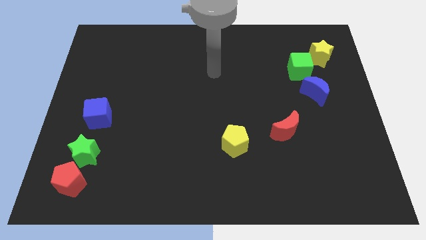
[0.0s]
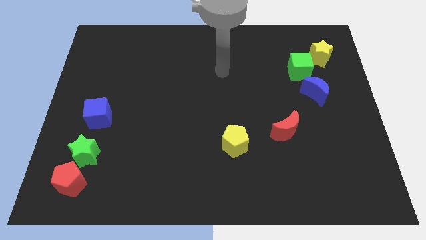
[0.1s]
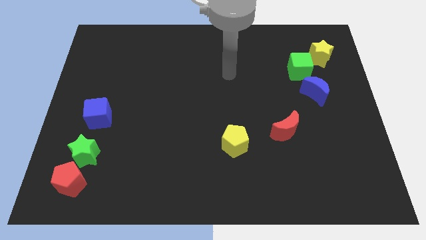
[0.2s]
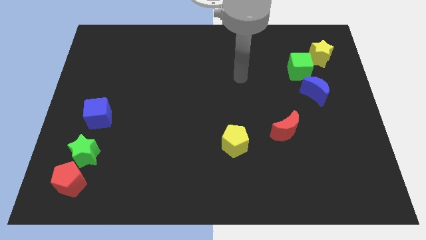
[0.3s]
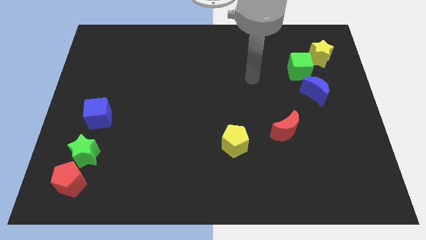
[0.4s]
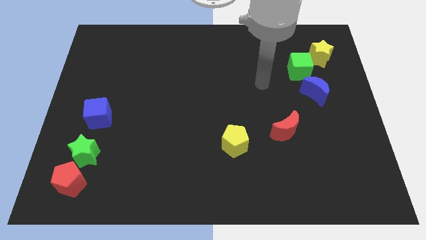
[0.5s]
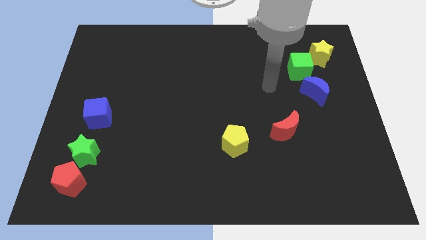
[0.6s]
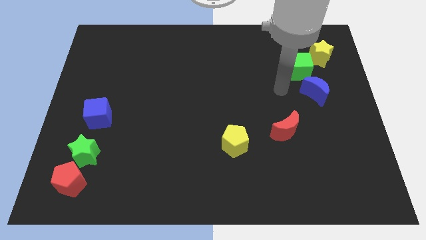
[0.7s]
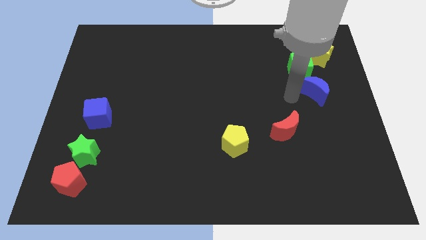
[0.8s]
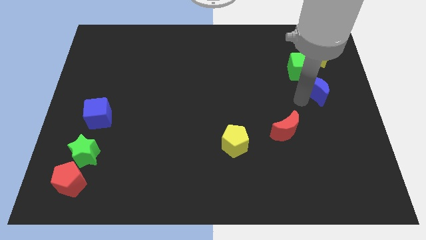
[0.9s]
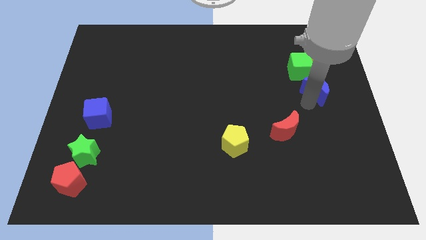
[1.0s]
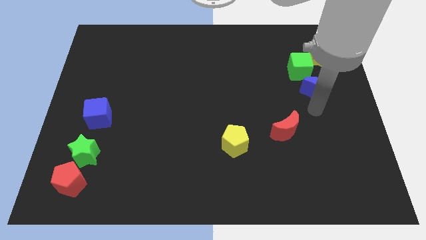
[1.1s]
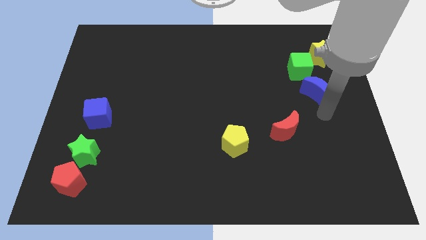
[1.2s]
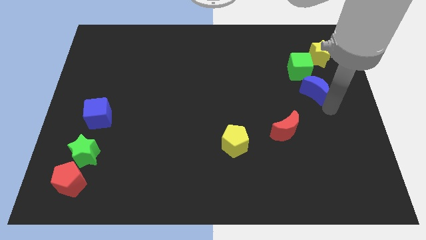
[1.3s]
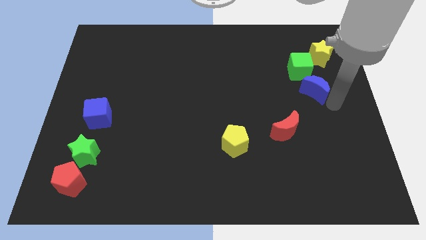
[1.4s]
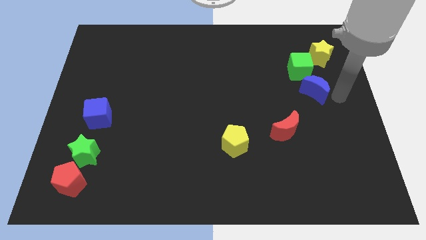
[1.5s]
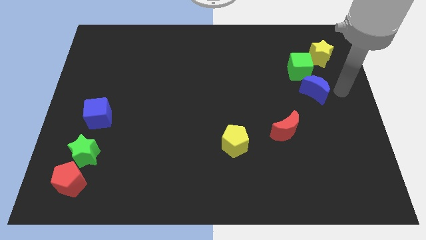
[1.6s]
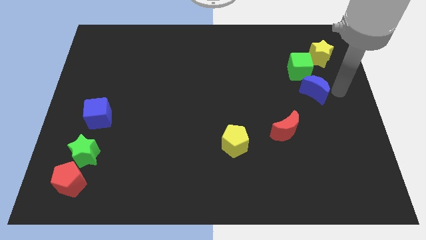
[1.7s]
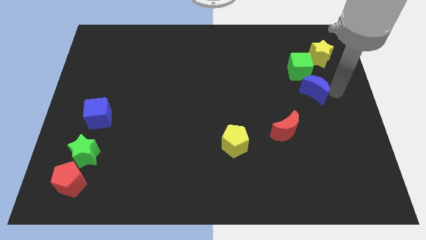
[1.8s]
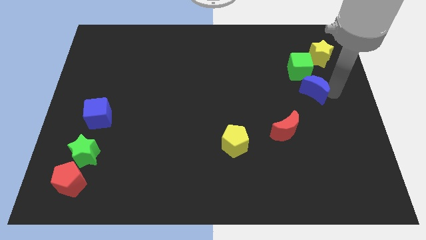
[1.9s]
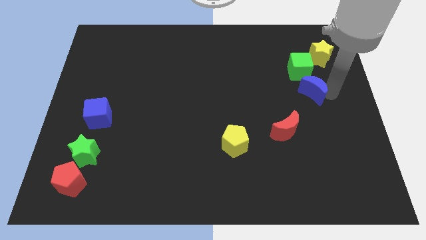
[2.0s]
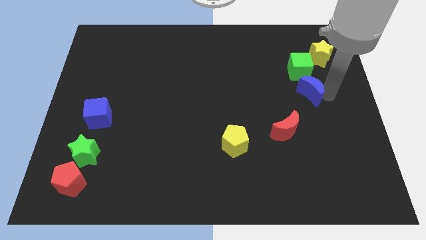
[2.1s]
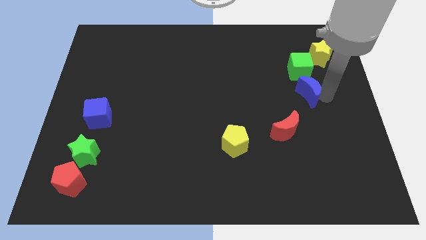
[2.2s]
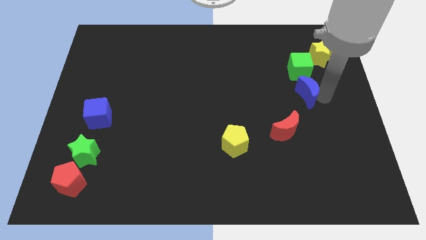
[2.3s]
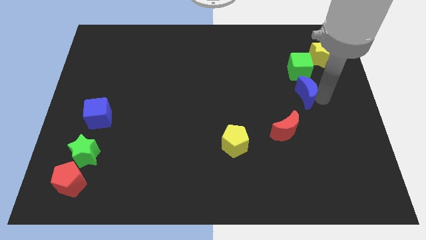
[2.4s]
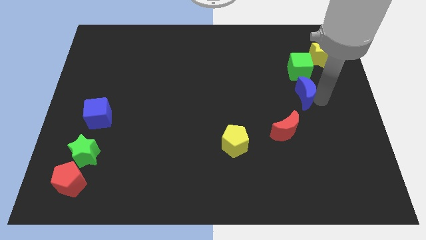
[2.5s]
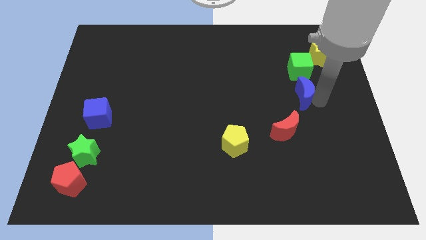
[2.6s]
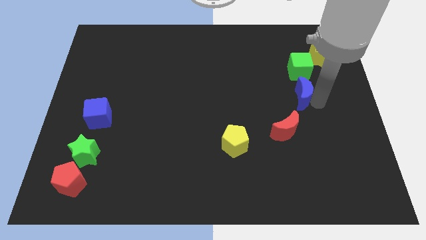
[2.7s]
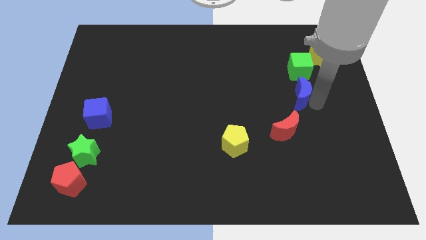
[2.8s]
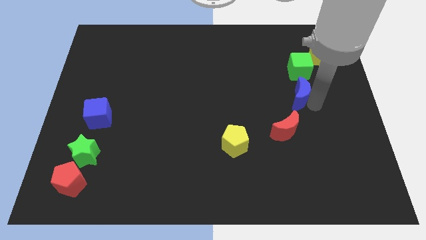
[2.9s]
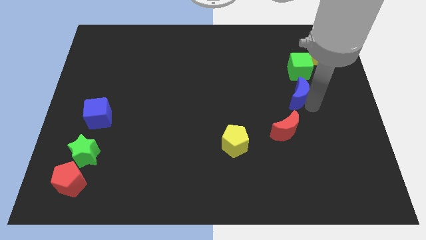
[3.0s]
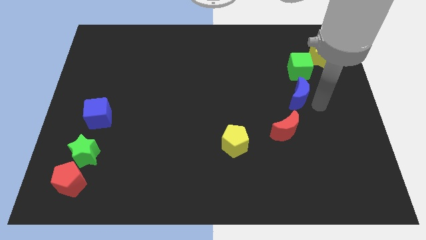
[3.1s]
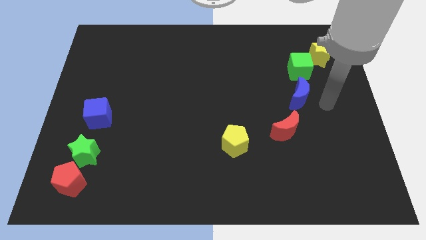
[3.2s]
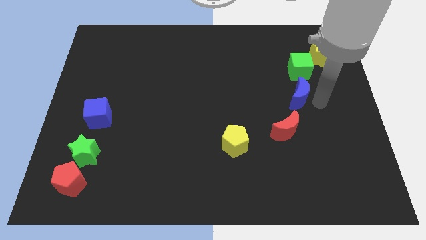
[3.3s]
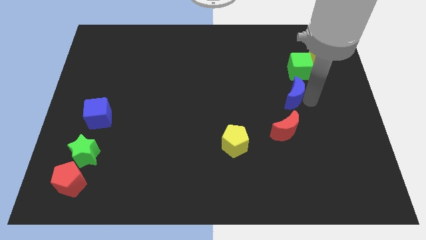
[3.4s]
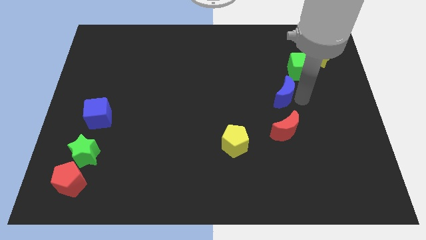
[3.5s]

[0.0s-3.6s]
push the blue moon left a little bit

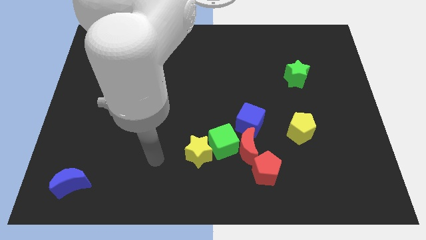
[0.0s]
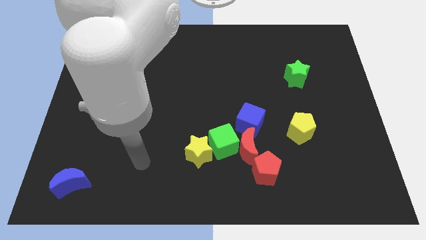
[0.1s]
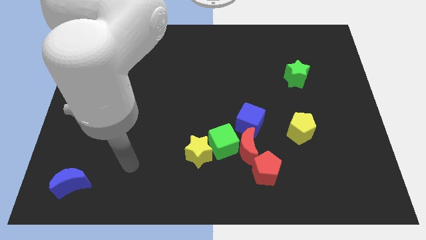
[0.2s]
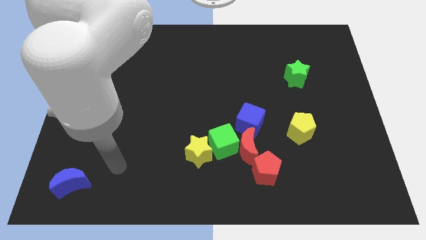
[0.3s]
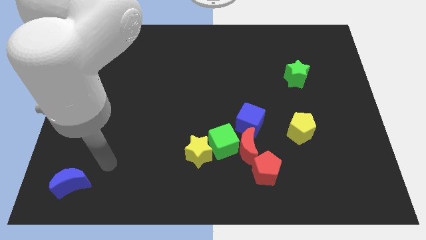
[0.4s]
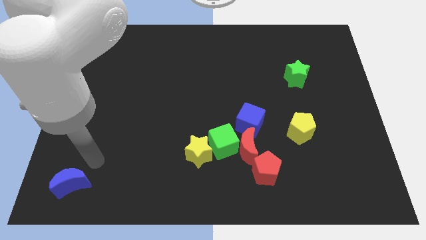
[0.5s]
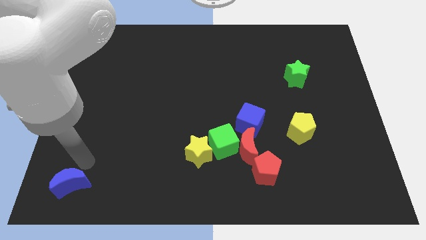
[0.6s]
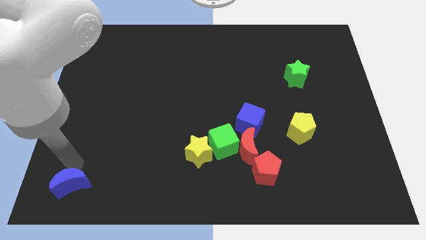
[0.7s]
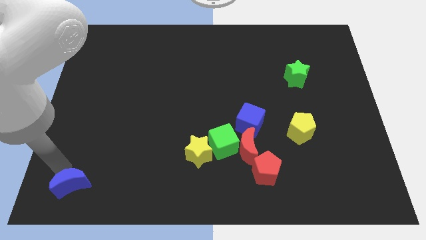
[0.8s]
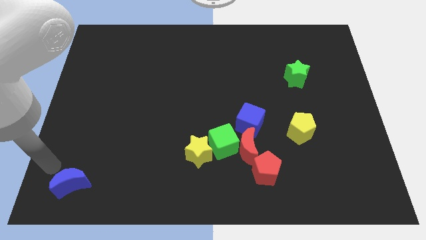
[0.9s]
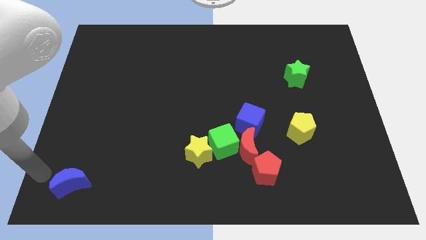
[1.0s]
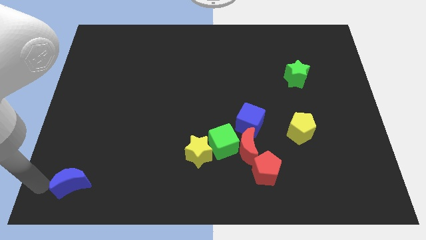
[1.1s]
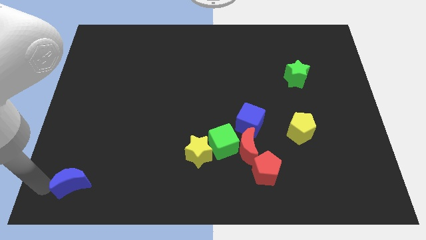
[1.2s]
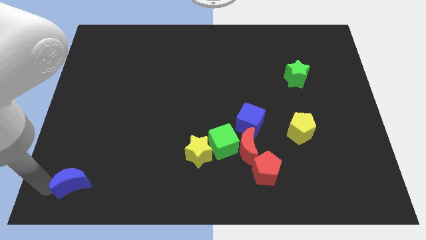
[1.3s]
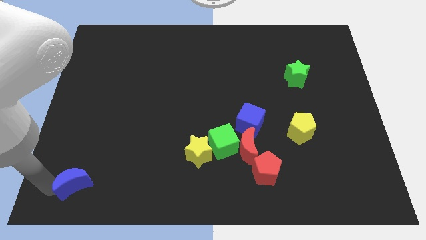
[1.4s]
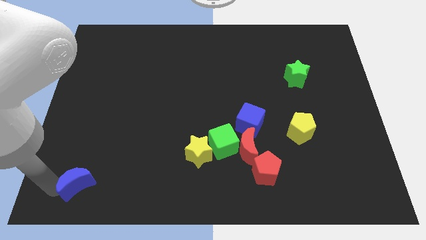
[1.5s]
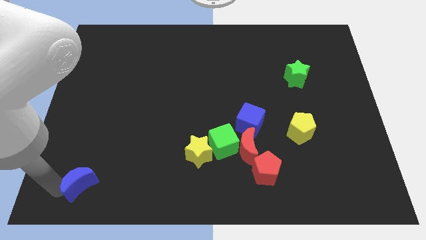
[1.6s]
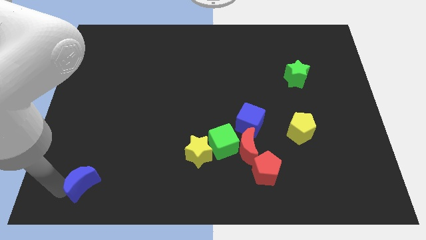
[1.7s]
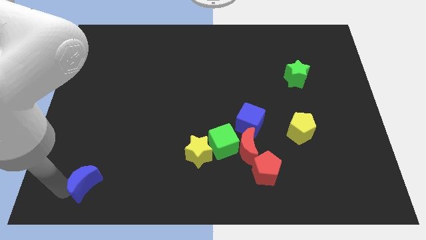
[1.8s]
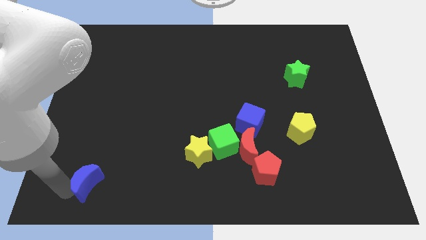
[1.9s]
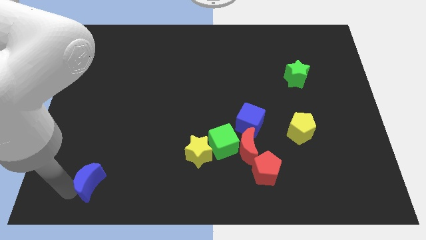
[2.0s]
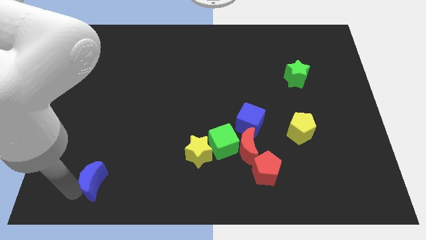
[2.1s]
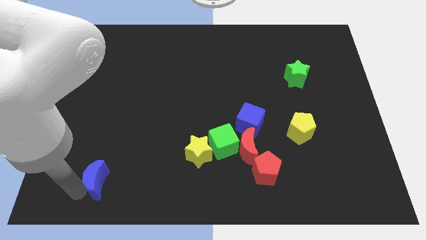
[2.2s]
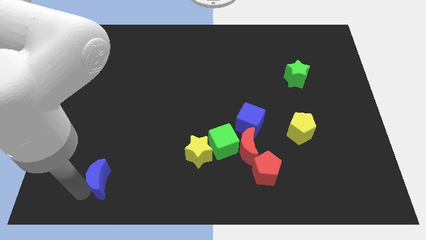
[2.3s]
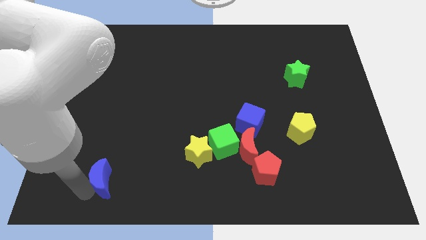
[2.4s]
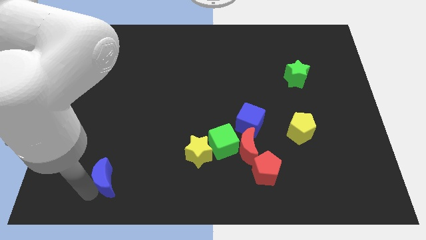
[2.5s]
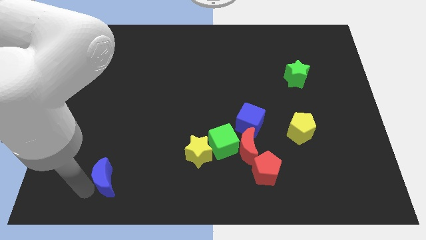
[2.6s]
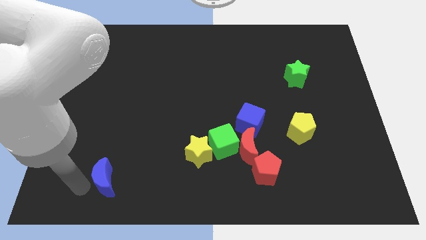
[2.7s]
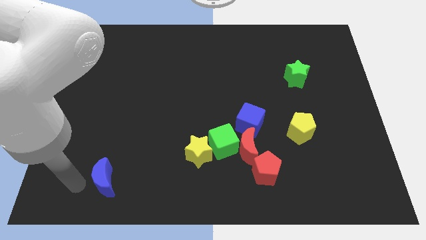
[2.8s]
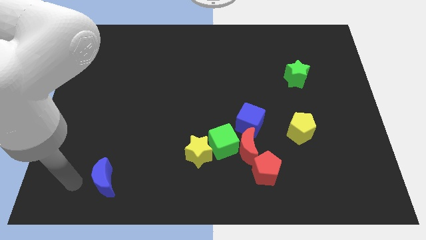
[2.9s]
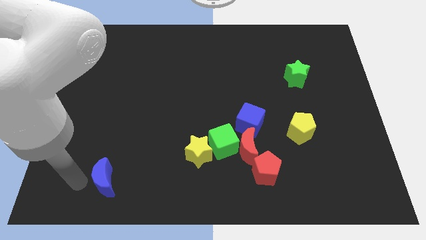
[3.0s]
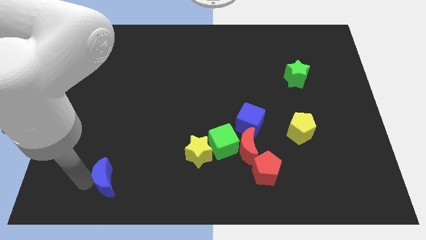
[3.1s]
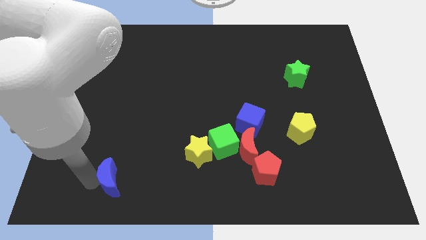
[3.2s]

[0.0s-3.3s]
push the blue moon right a bit

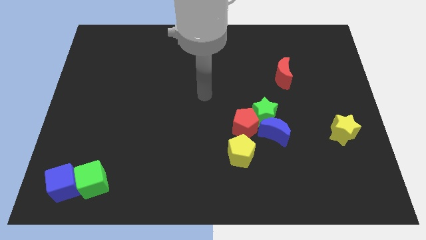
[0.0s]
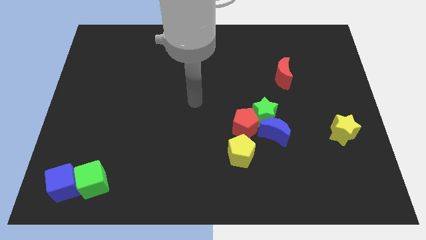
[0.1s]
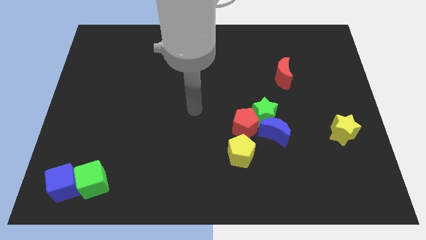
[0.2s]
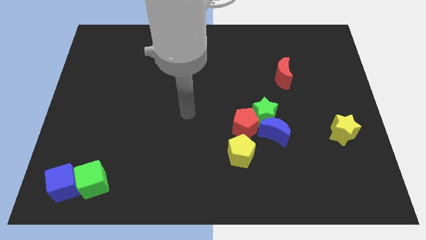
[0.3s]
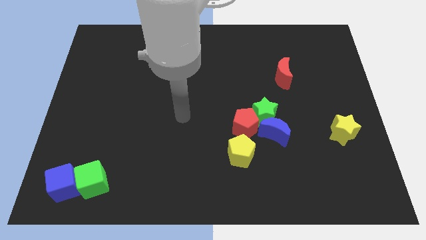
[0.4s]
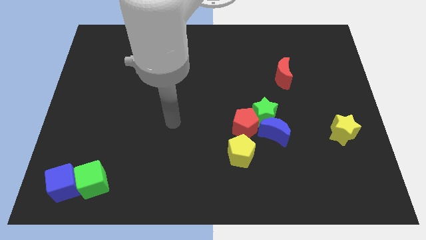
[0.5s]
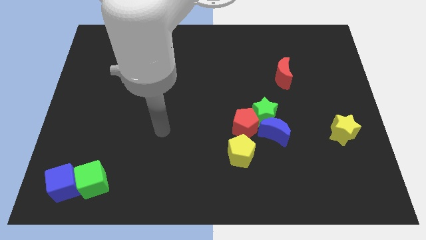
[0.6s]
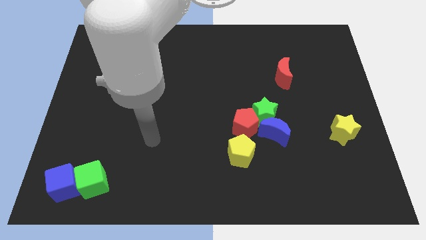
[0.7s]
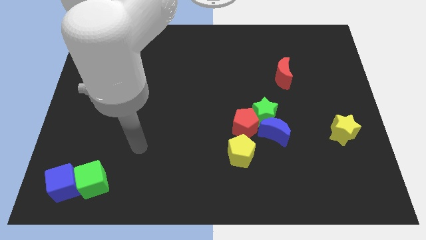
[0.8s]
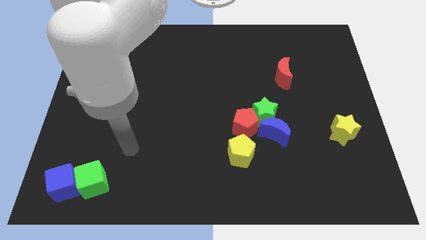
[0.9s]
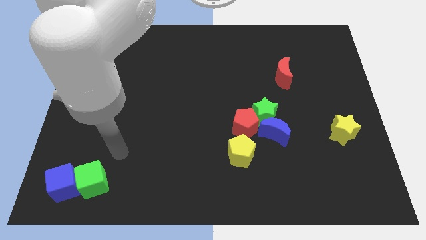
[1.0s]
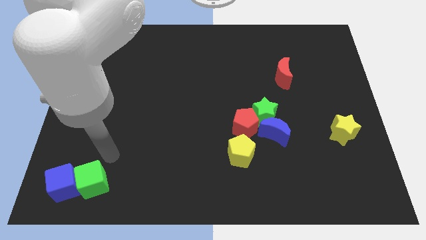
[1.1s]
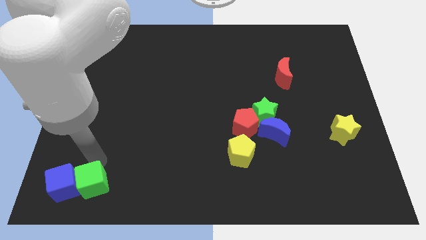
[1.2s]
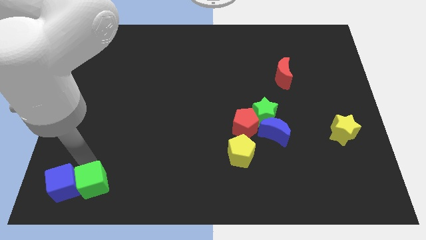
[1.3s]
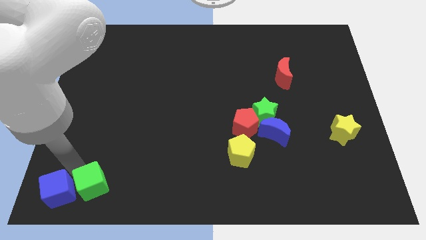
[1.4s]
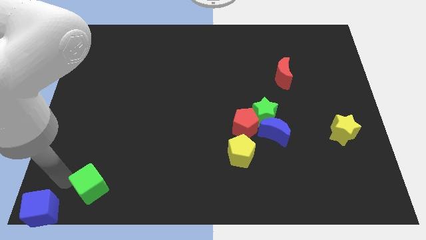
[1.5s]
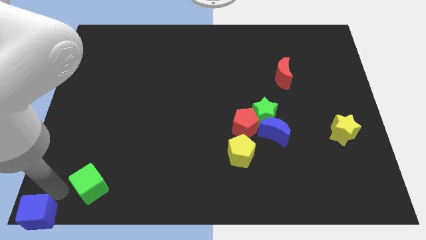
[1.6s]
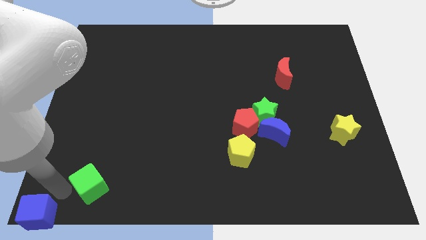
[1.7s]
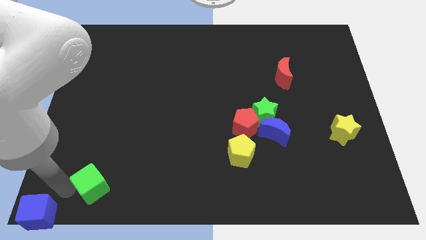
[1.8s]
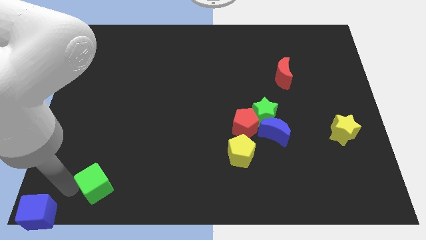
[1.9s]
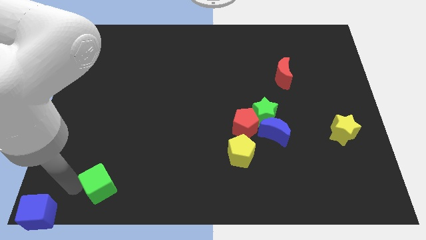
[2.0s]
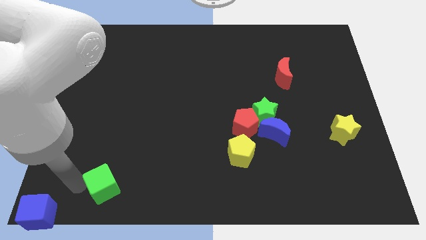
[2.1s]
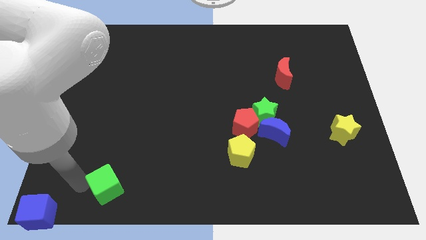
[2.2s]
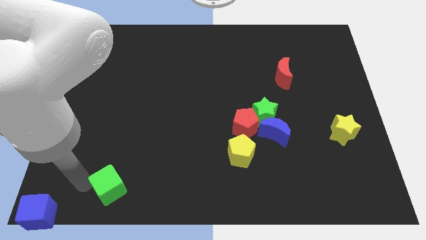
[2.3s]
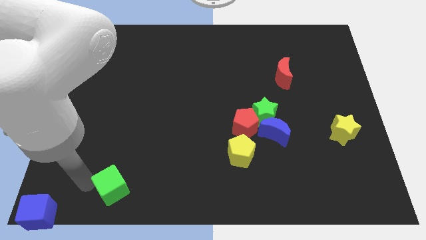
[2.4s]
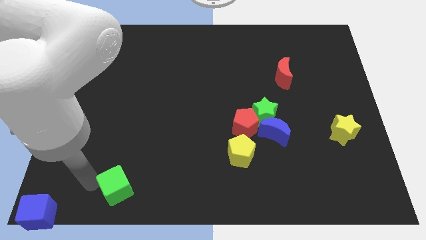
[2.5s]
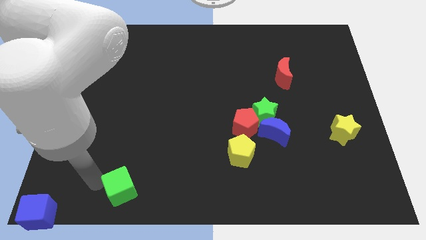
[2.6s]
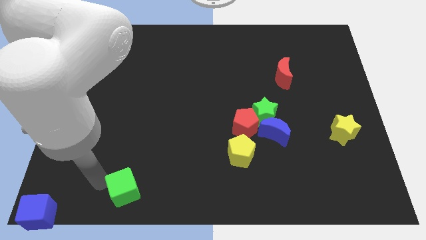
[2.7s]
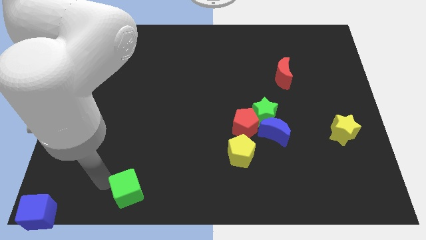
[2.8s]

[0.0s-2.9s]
slide the green cube a bit to the right
